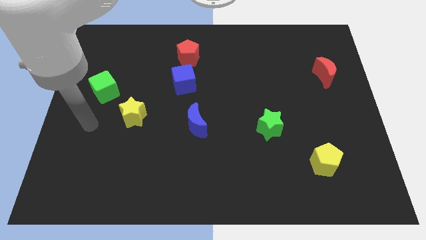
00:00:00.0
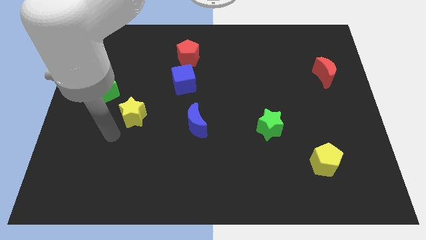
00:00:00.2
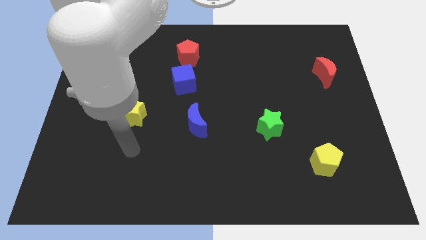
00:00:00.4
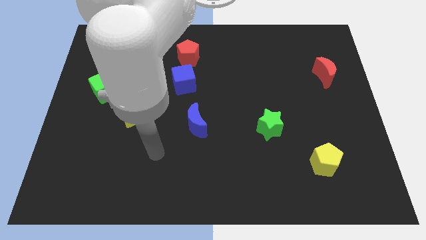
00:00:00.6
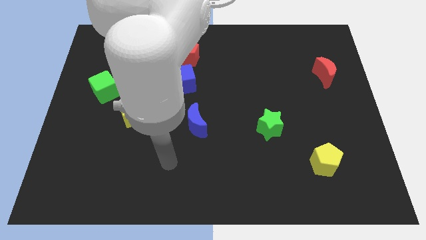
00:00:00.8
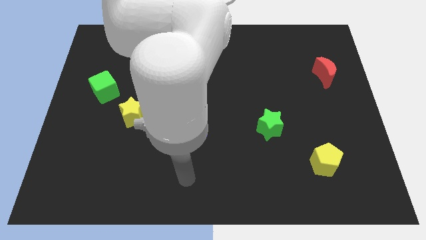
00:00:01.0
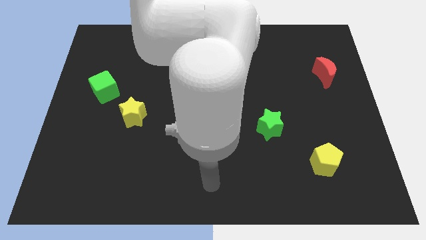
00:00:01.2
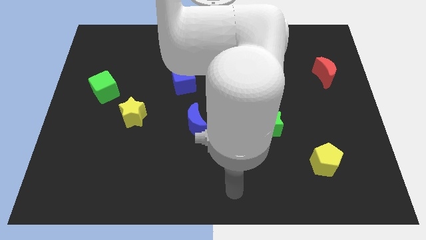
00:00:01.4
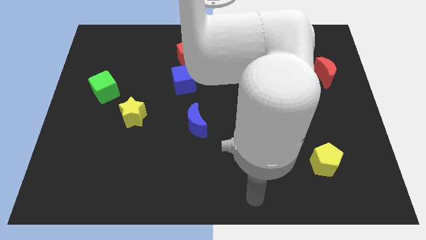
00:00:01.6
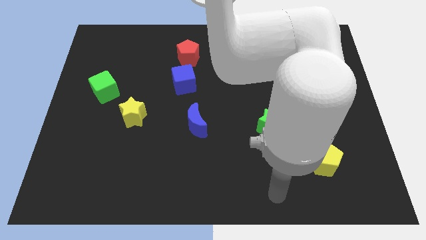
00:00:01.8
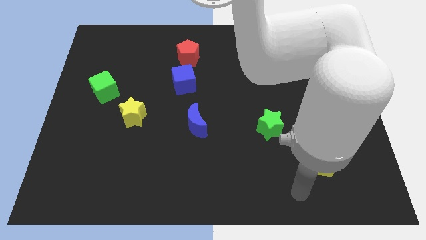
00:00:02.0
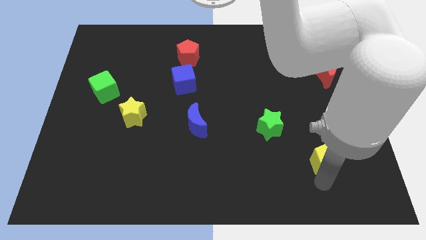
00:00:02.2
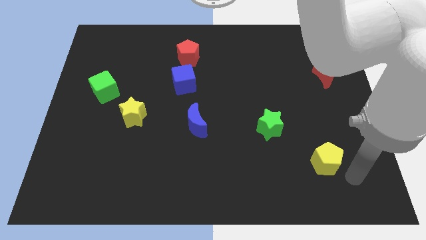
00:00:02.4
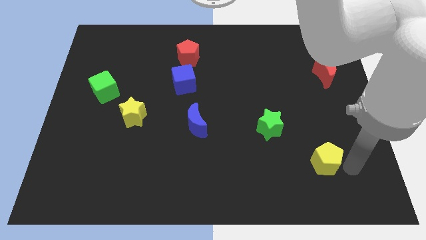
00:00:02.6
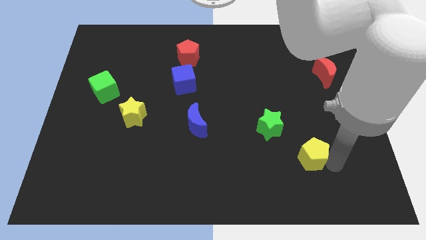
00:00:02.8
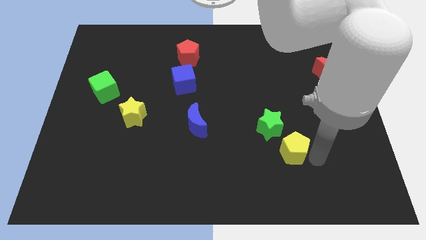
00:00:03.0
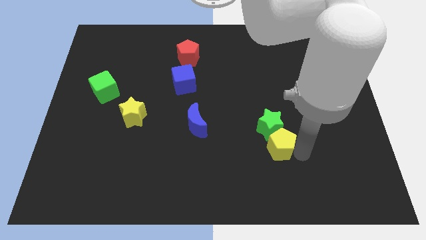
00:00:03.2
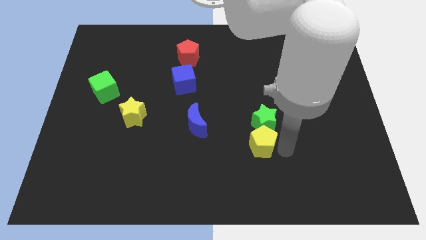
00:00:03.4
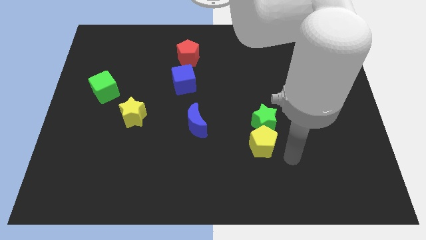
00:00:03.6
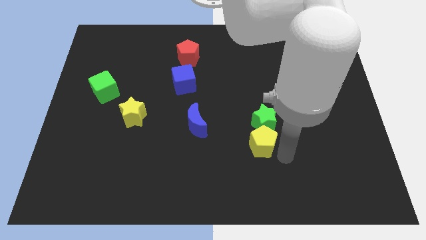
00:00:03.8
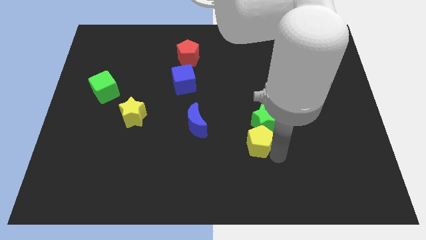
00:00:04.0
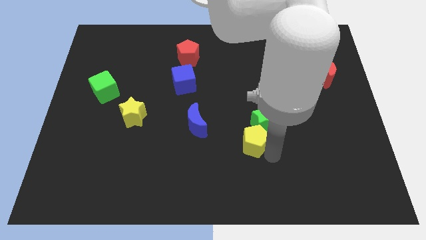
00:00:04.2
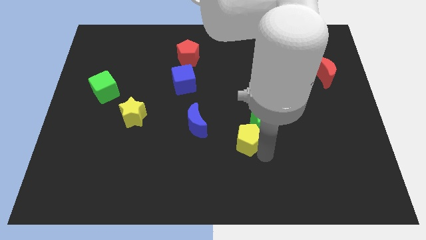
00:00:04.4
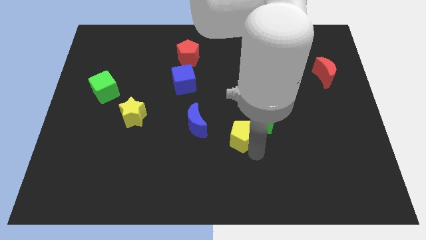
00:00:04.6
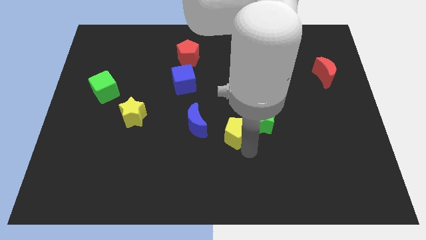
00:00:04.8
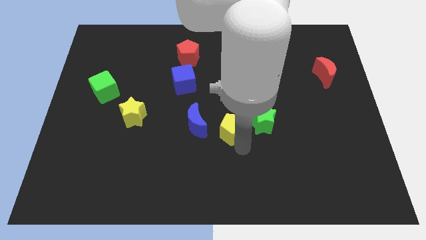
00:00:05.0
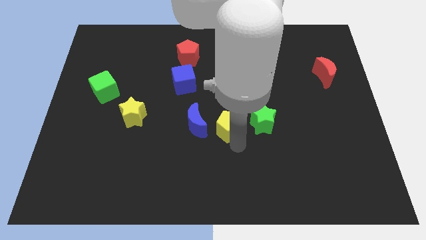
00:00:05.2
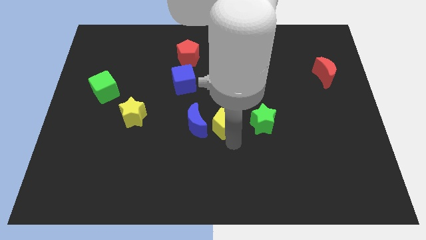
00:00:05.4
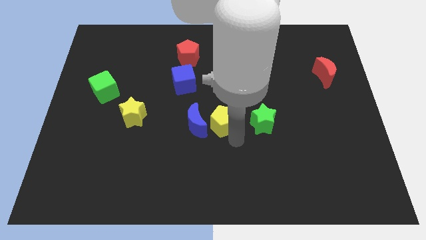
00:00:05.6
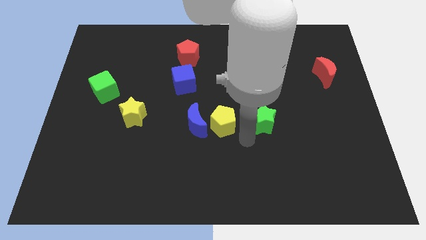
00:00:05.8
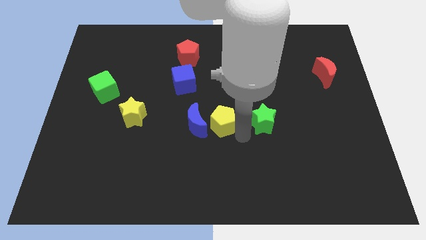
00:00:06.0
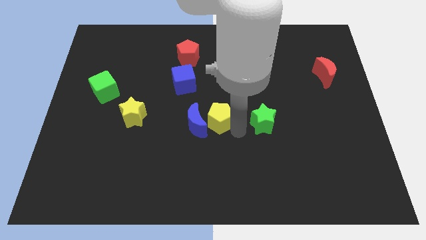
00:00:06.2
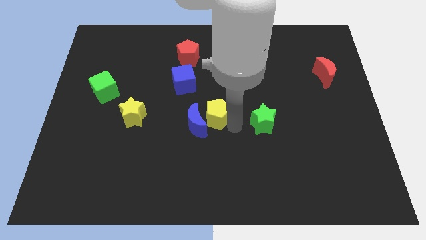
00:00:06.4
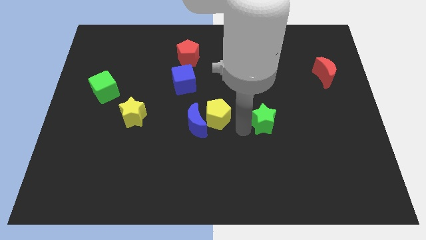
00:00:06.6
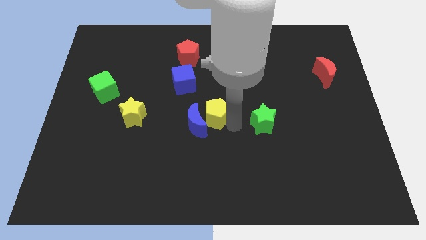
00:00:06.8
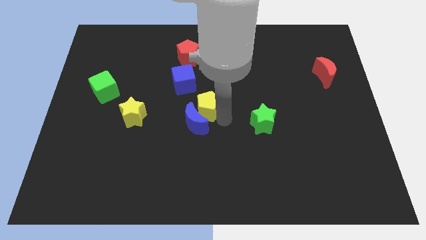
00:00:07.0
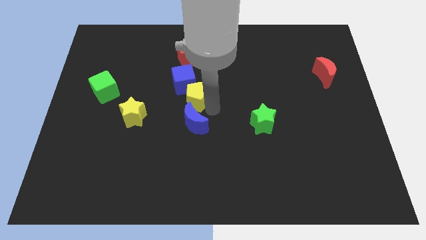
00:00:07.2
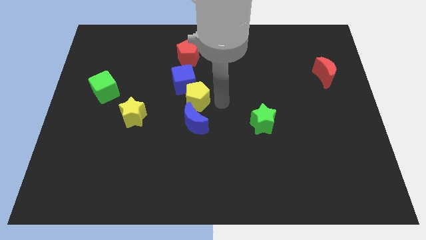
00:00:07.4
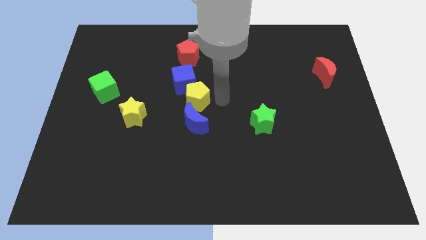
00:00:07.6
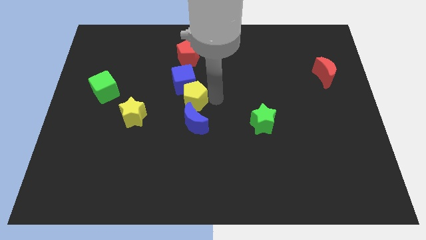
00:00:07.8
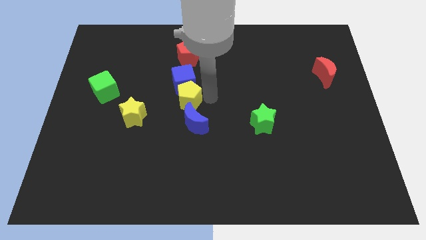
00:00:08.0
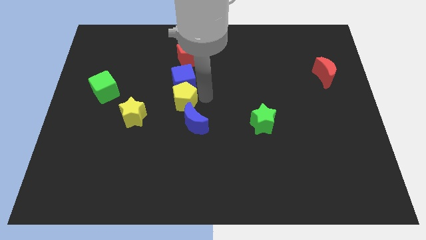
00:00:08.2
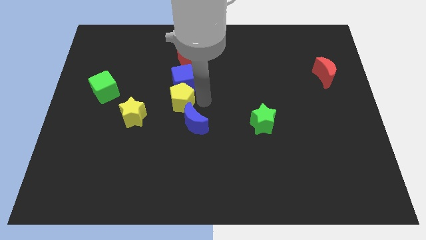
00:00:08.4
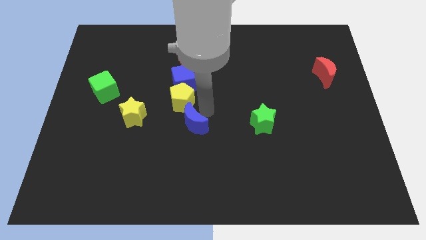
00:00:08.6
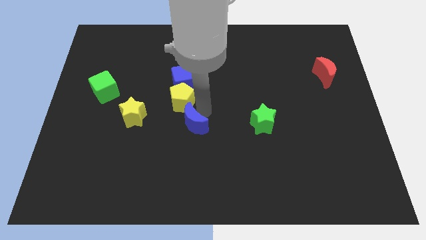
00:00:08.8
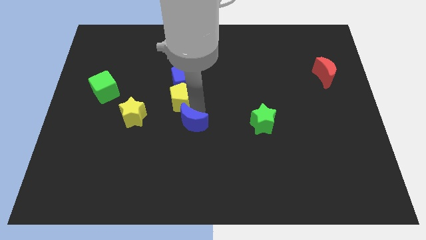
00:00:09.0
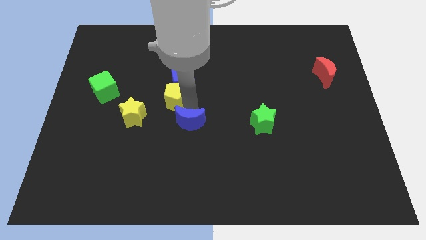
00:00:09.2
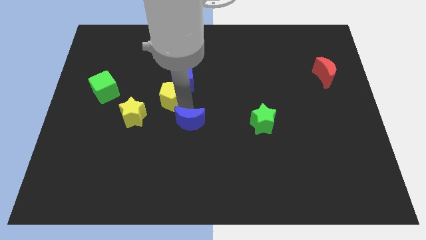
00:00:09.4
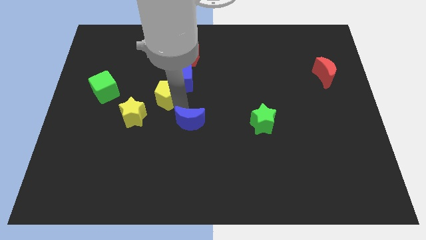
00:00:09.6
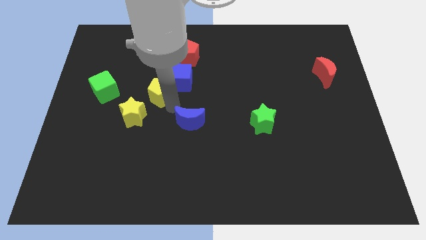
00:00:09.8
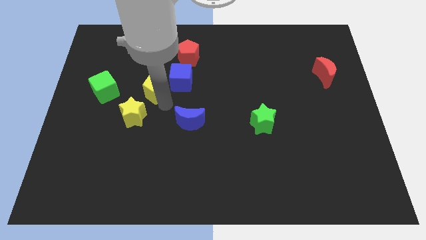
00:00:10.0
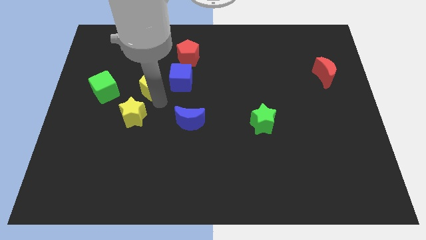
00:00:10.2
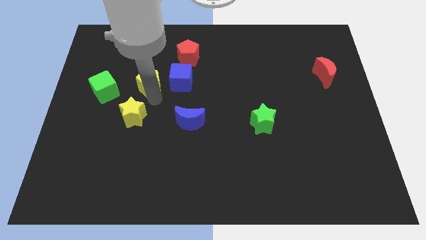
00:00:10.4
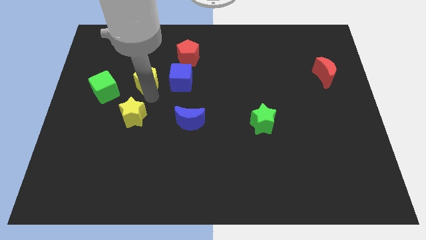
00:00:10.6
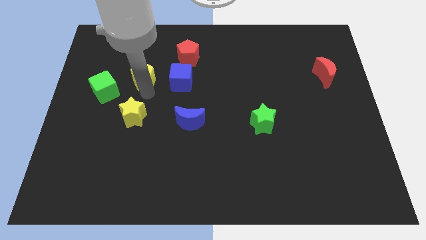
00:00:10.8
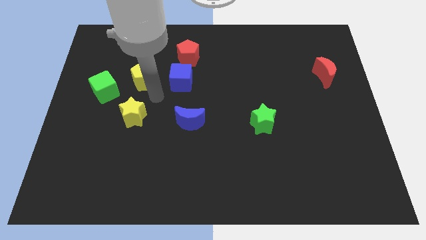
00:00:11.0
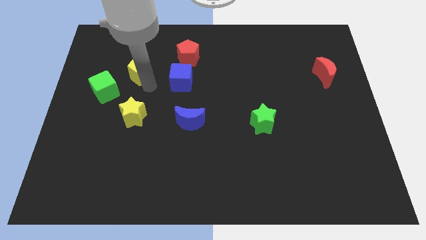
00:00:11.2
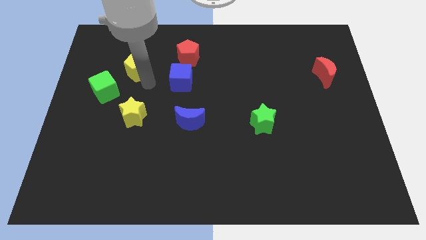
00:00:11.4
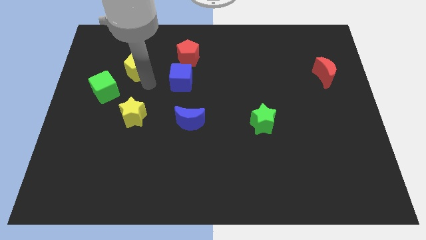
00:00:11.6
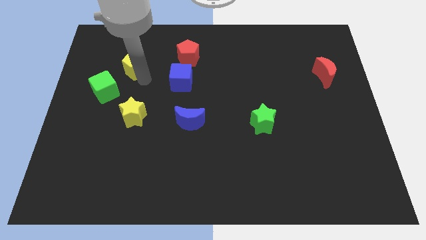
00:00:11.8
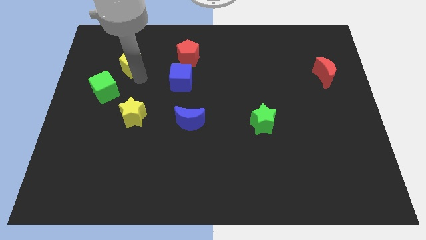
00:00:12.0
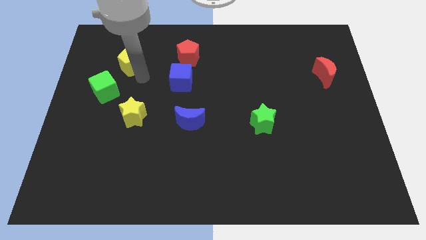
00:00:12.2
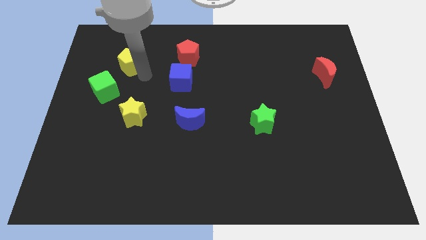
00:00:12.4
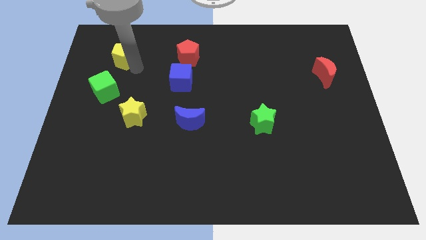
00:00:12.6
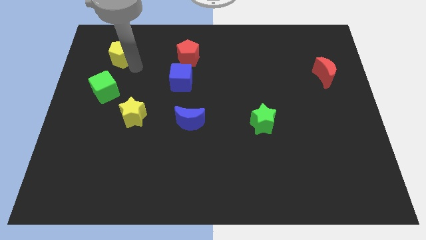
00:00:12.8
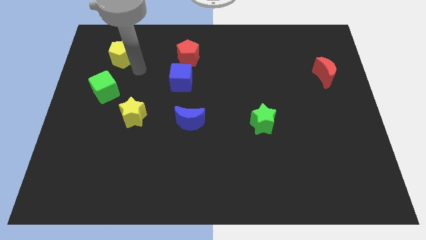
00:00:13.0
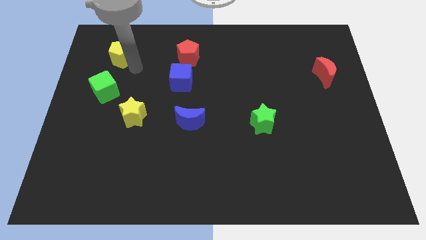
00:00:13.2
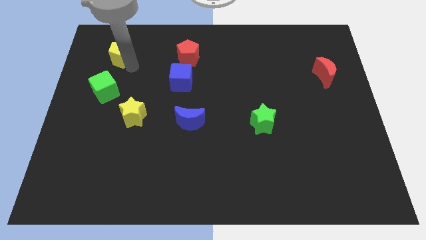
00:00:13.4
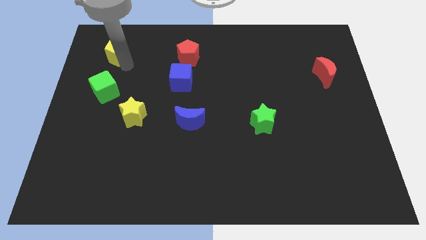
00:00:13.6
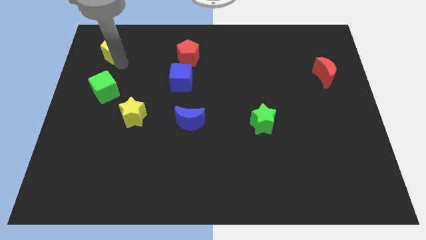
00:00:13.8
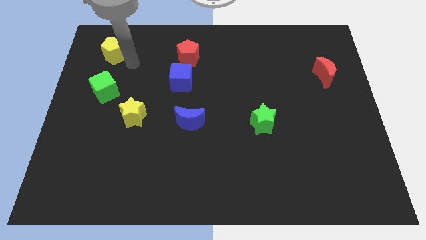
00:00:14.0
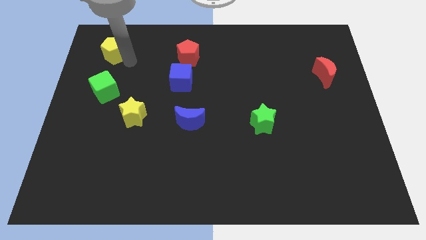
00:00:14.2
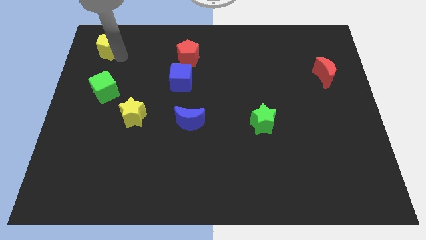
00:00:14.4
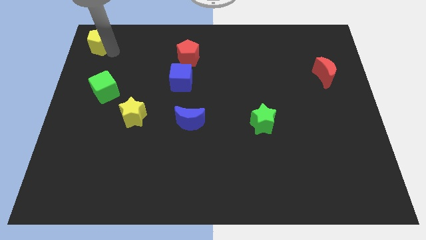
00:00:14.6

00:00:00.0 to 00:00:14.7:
put the yellow pentagon to the top left corner
